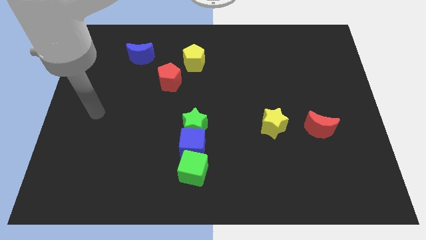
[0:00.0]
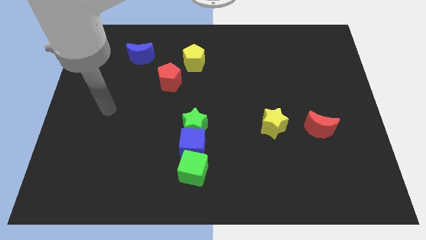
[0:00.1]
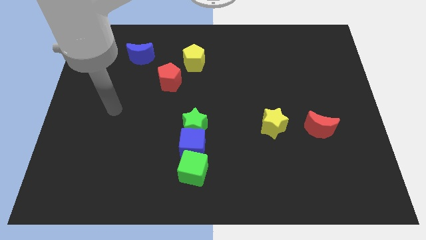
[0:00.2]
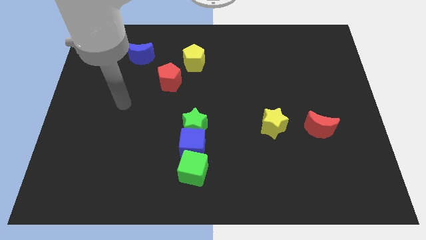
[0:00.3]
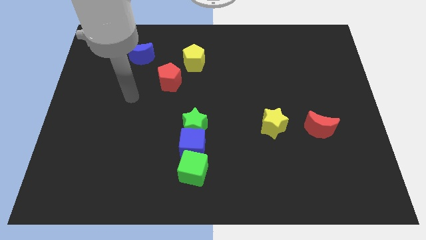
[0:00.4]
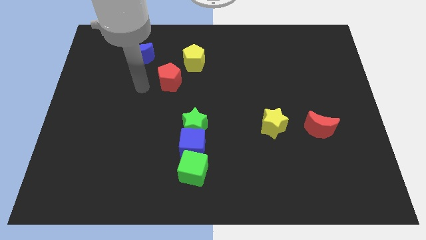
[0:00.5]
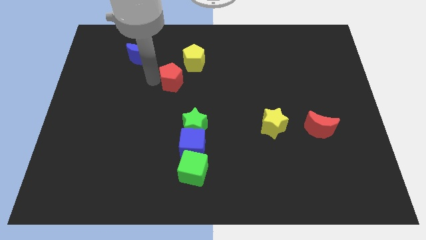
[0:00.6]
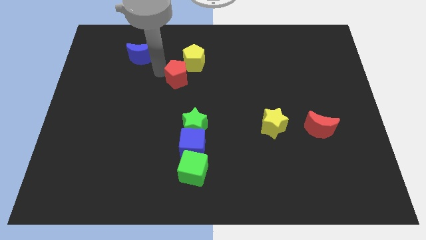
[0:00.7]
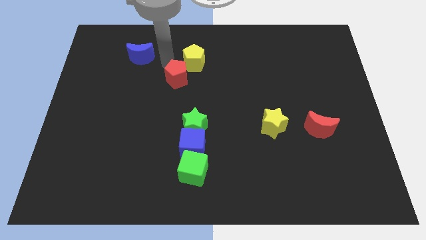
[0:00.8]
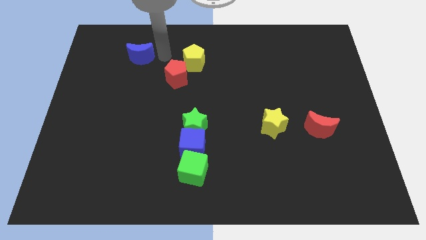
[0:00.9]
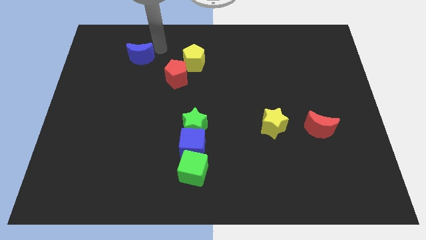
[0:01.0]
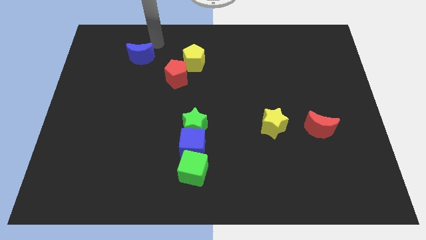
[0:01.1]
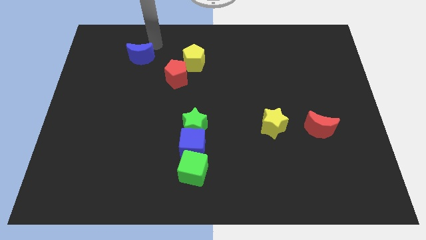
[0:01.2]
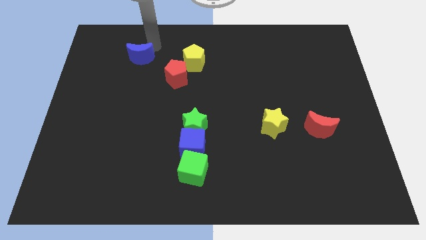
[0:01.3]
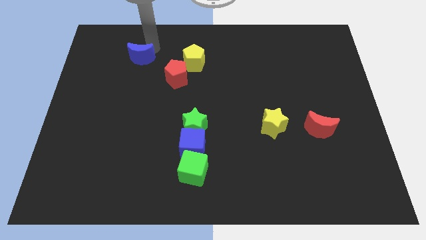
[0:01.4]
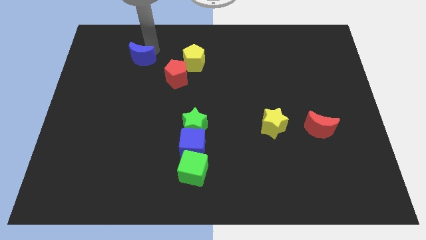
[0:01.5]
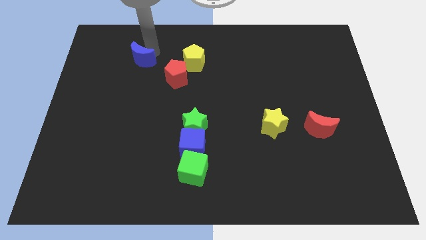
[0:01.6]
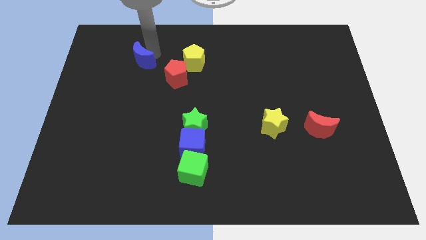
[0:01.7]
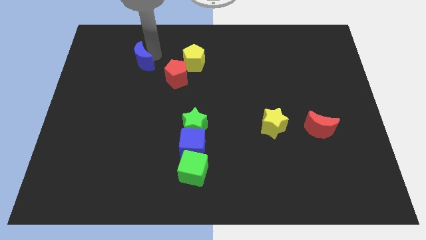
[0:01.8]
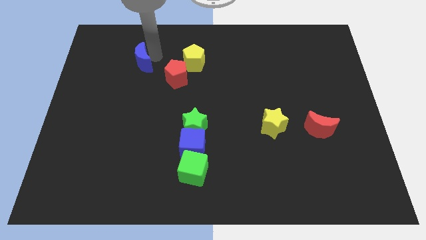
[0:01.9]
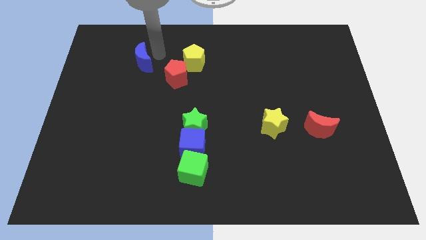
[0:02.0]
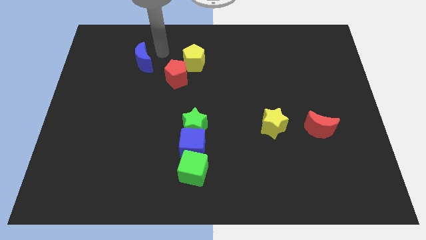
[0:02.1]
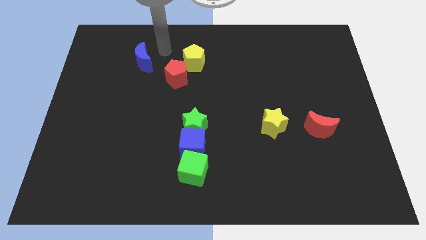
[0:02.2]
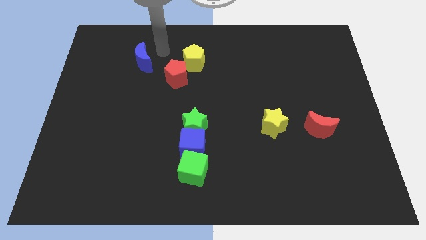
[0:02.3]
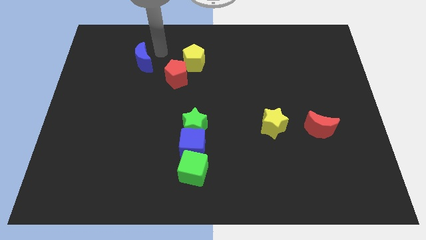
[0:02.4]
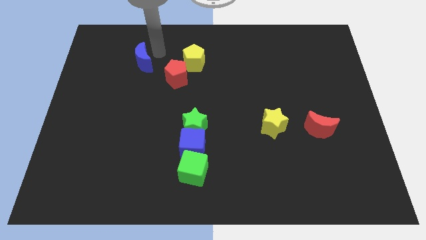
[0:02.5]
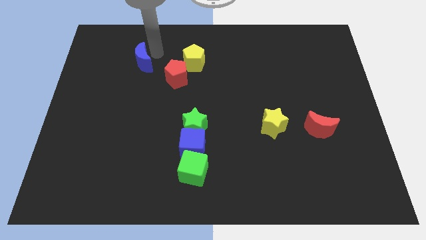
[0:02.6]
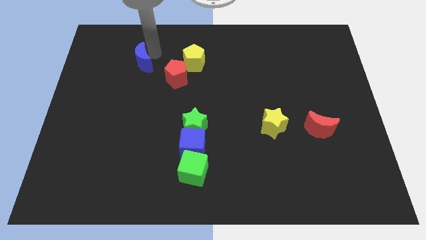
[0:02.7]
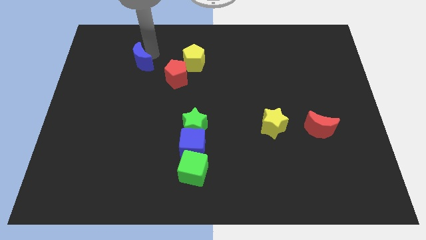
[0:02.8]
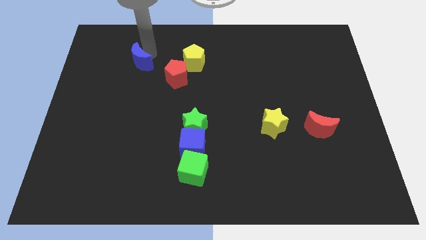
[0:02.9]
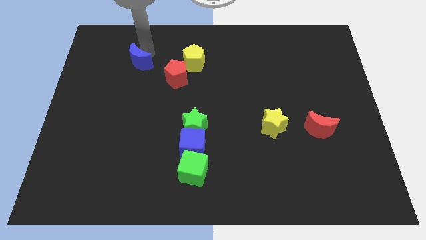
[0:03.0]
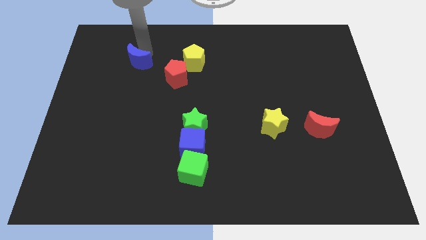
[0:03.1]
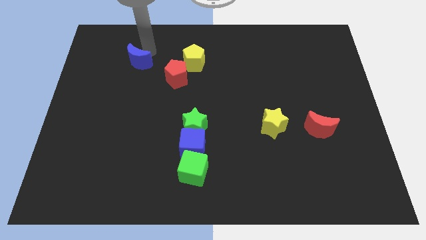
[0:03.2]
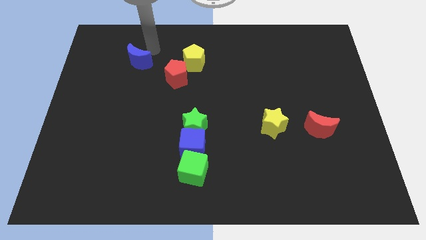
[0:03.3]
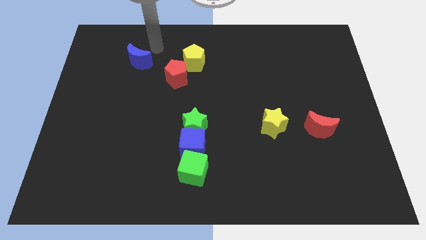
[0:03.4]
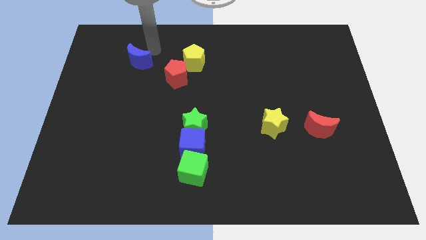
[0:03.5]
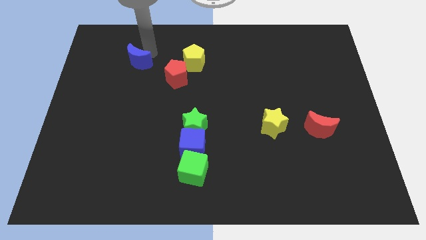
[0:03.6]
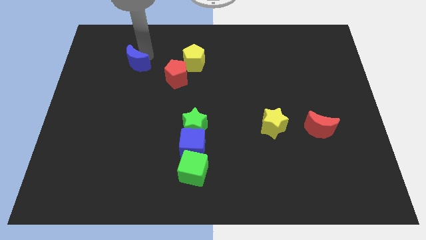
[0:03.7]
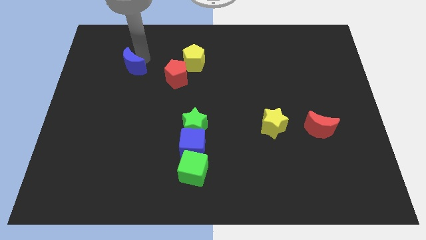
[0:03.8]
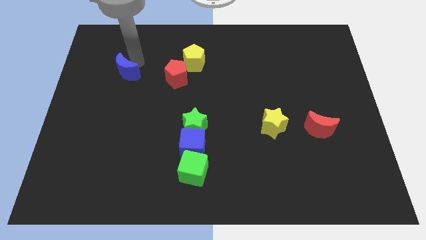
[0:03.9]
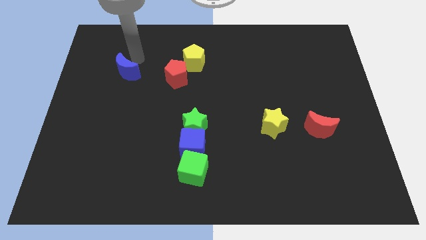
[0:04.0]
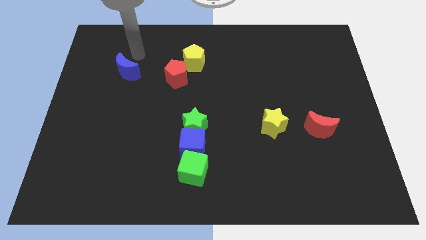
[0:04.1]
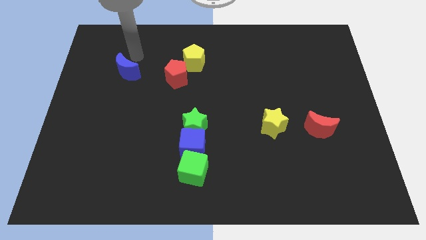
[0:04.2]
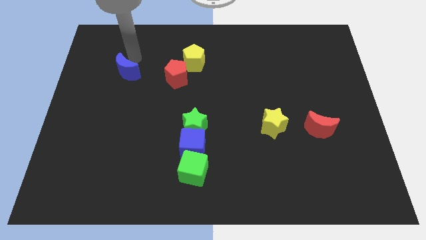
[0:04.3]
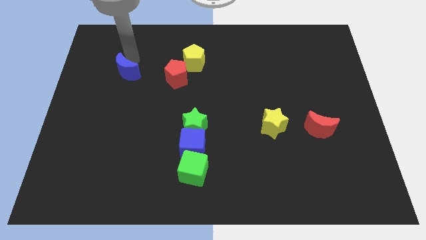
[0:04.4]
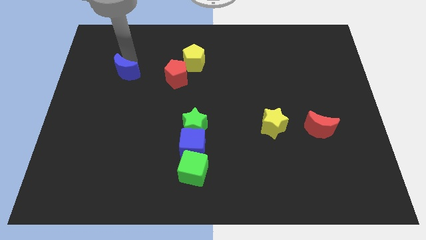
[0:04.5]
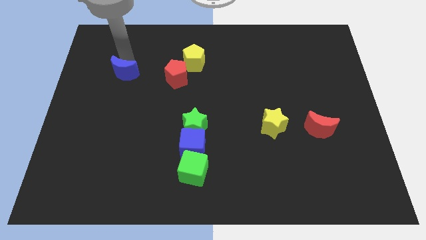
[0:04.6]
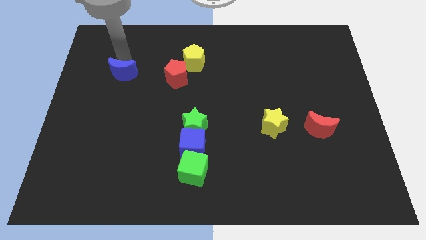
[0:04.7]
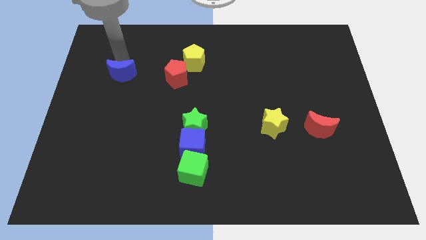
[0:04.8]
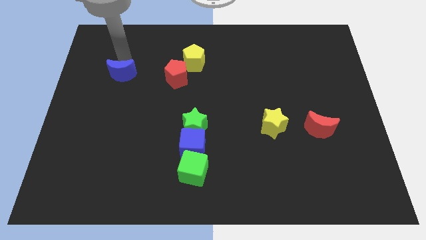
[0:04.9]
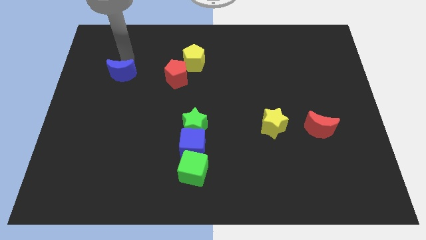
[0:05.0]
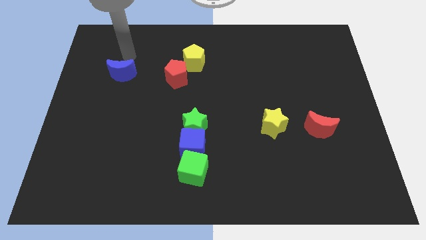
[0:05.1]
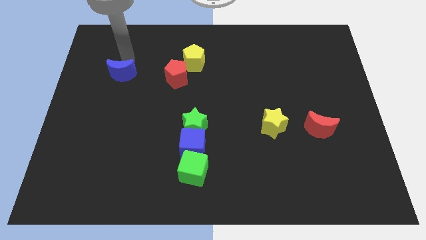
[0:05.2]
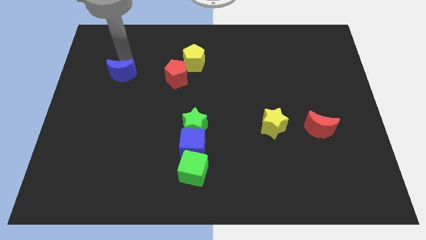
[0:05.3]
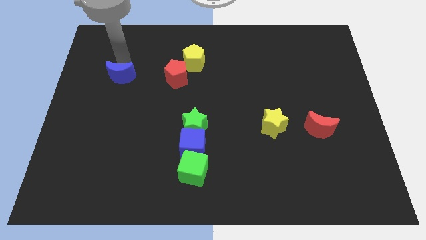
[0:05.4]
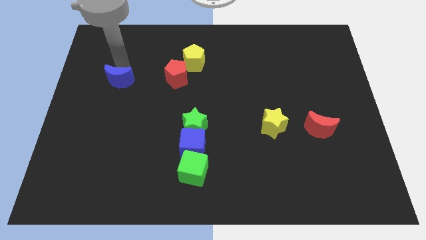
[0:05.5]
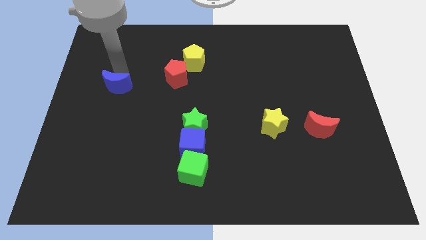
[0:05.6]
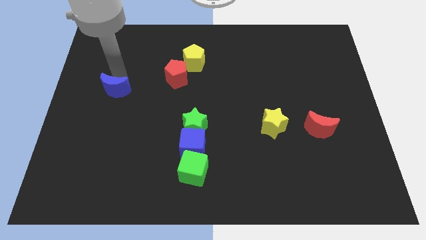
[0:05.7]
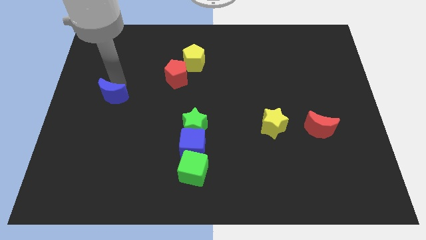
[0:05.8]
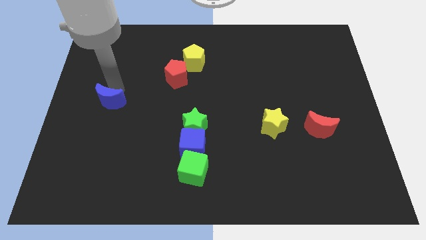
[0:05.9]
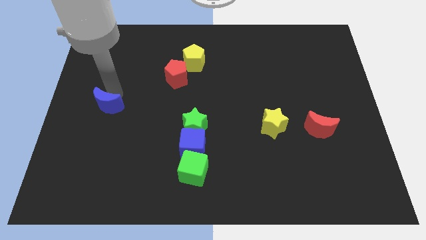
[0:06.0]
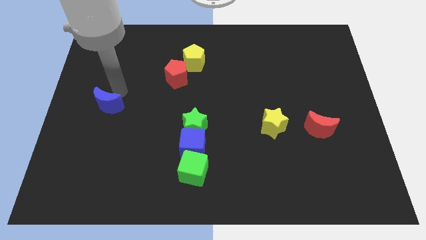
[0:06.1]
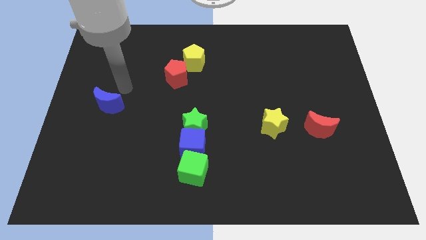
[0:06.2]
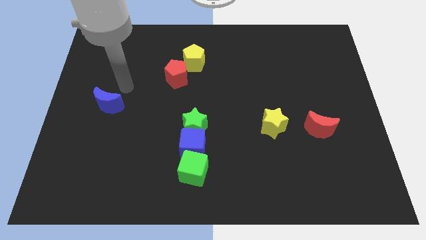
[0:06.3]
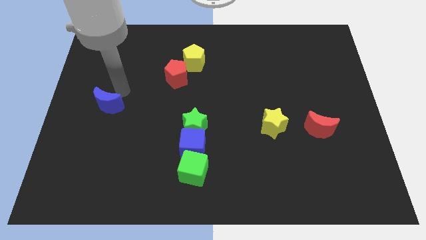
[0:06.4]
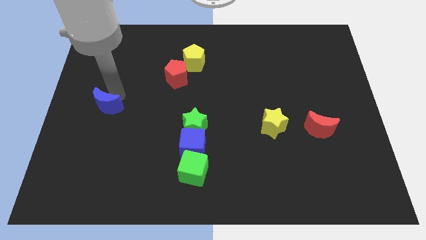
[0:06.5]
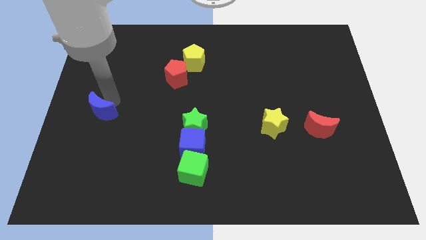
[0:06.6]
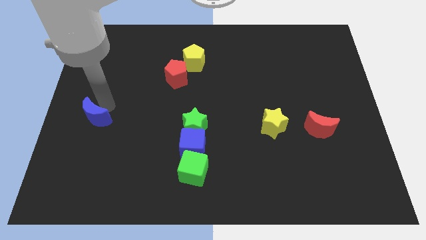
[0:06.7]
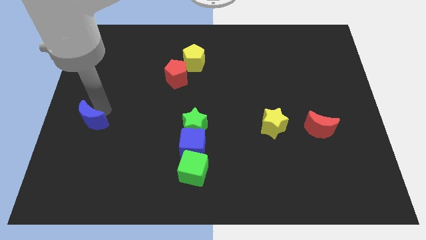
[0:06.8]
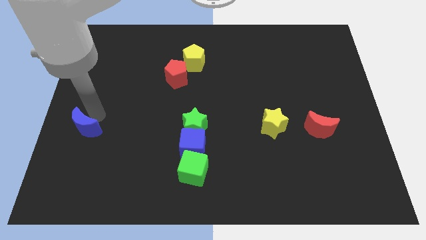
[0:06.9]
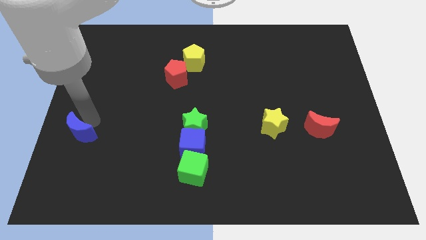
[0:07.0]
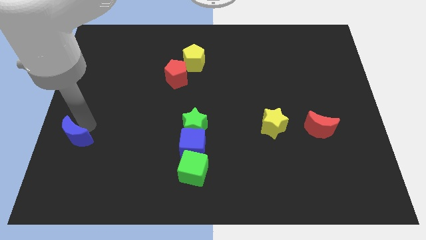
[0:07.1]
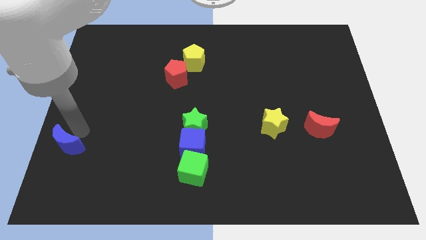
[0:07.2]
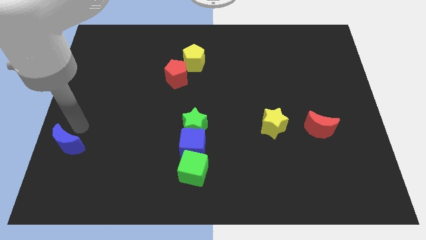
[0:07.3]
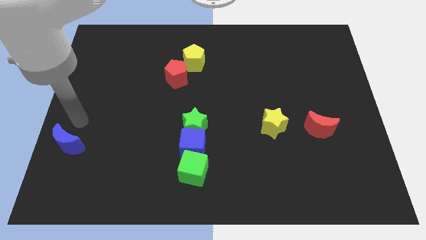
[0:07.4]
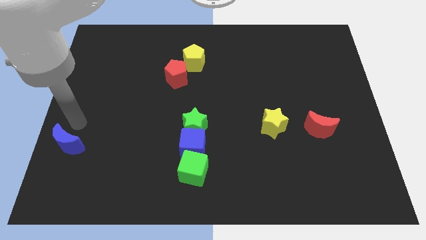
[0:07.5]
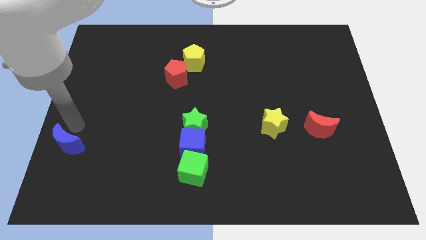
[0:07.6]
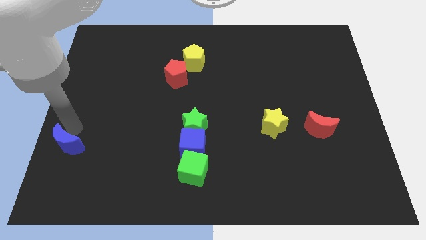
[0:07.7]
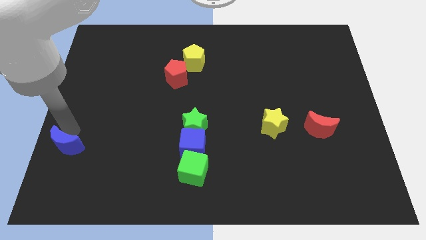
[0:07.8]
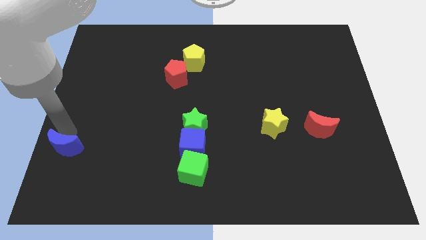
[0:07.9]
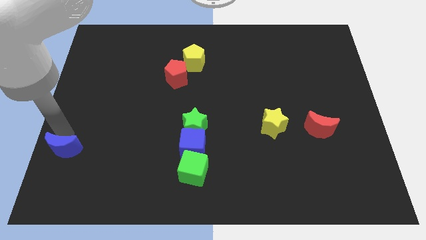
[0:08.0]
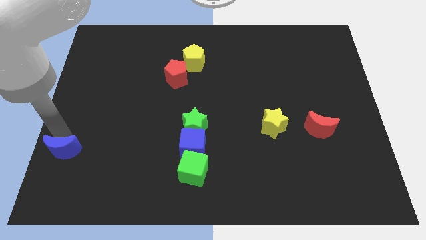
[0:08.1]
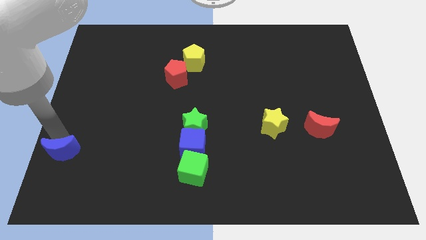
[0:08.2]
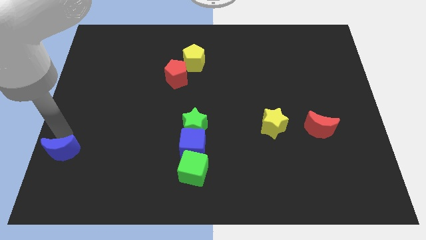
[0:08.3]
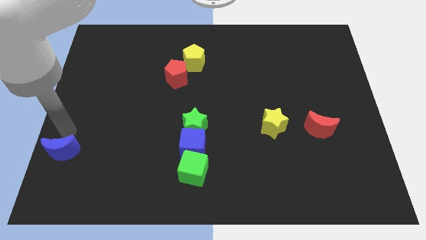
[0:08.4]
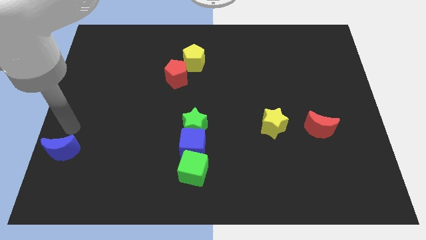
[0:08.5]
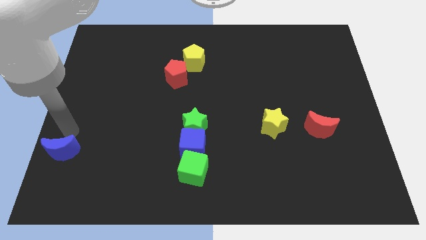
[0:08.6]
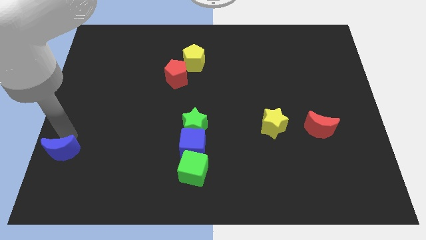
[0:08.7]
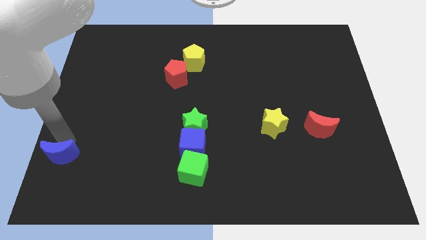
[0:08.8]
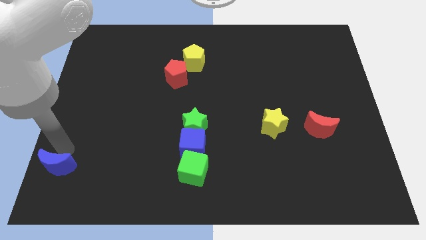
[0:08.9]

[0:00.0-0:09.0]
move the blue moon to the lower left corner
